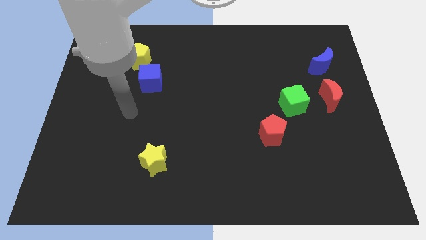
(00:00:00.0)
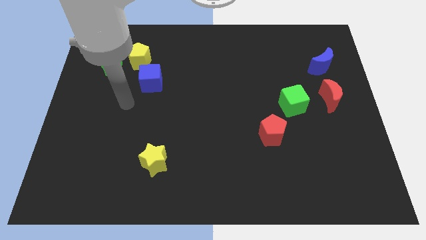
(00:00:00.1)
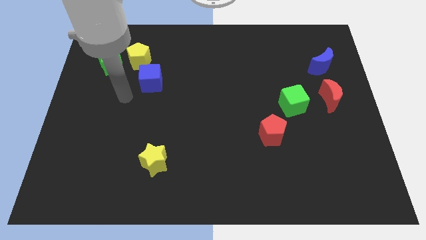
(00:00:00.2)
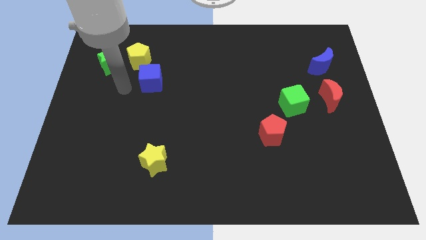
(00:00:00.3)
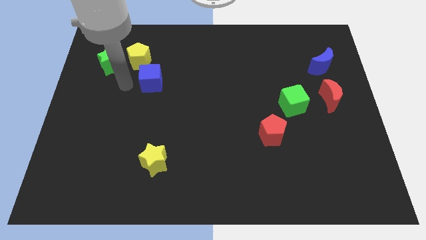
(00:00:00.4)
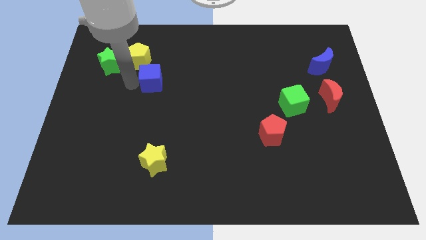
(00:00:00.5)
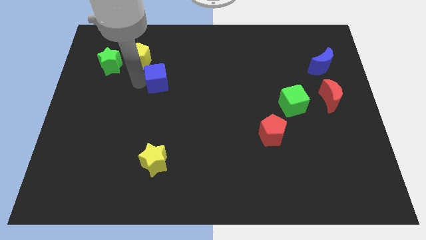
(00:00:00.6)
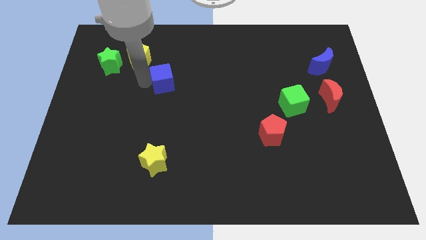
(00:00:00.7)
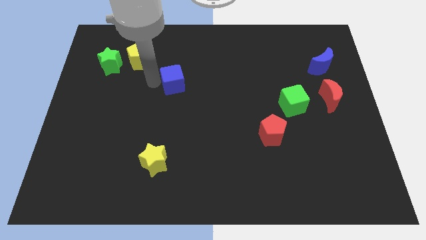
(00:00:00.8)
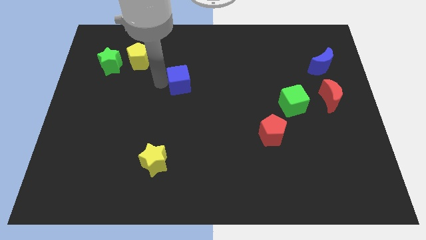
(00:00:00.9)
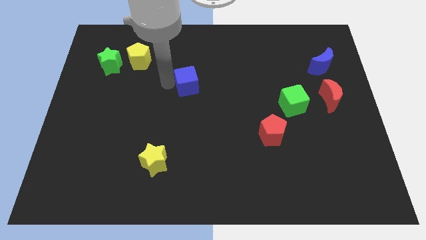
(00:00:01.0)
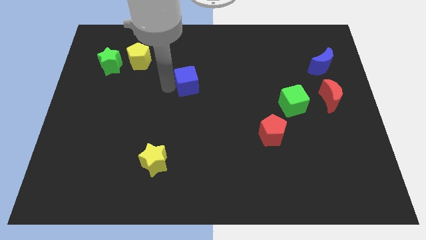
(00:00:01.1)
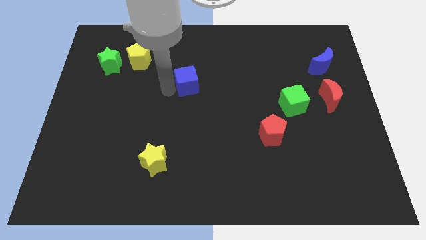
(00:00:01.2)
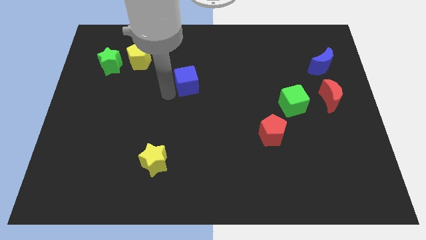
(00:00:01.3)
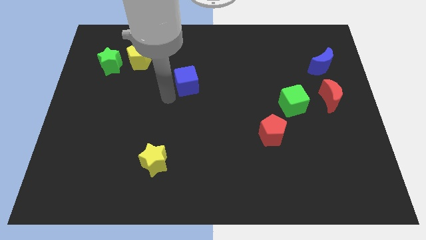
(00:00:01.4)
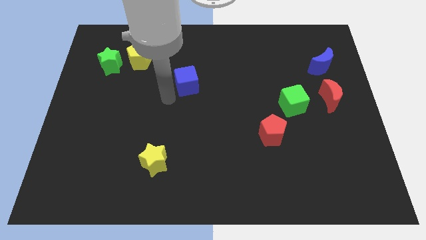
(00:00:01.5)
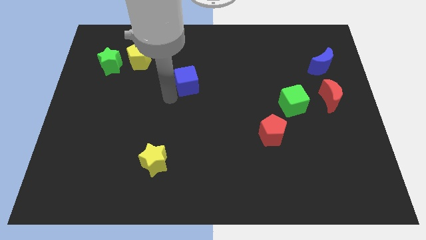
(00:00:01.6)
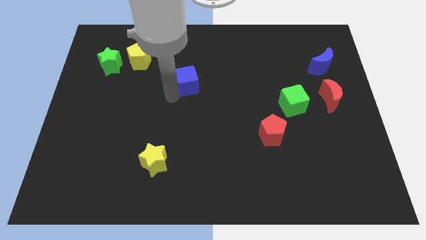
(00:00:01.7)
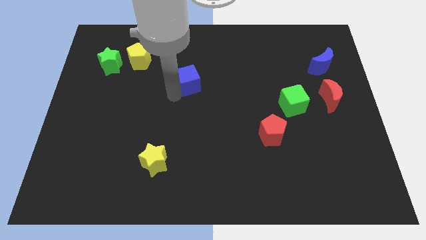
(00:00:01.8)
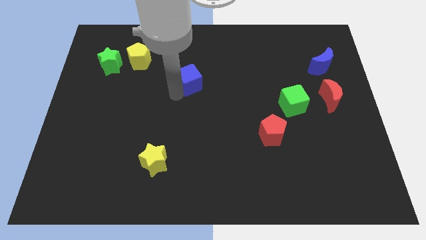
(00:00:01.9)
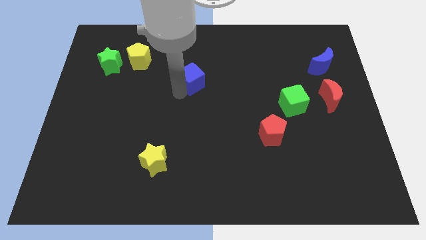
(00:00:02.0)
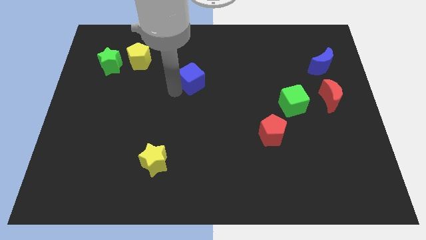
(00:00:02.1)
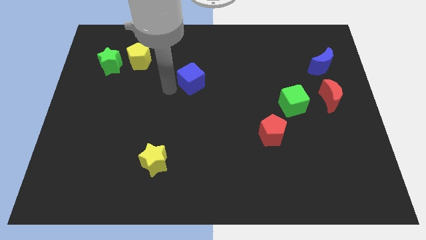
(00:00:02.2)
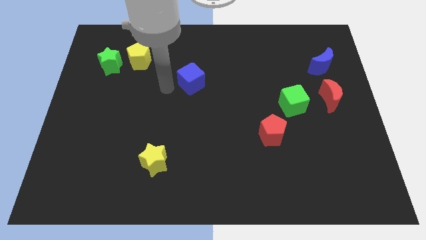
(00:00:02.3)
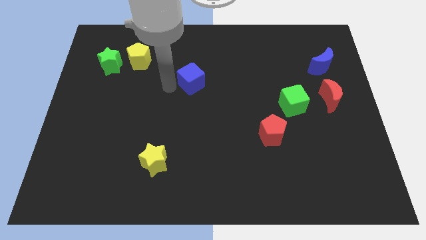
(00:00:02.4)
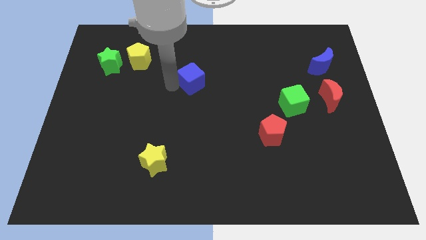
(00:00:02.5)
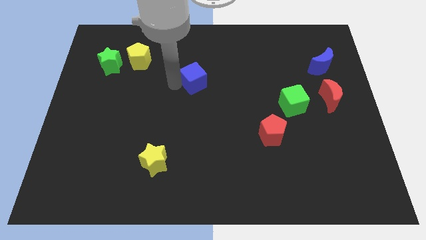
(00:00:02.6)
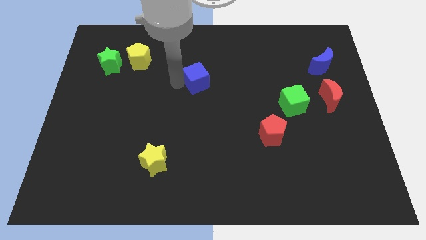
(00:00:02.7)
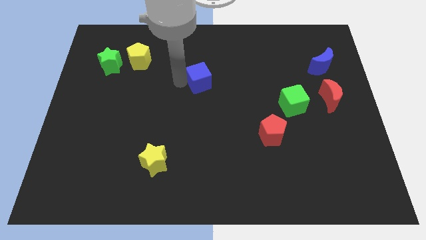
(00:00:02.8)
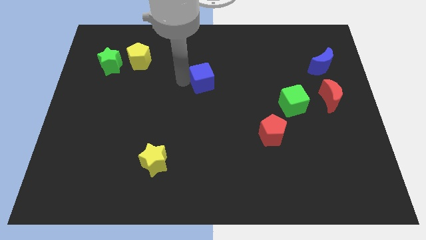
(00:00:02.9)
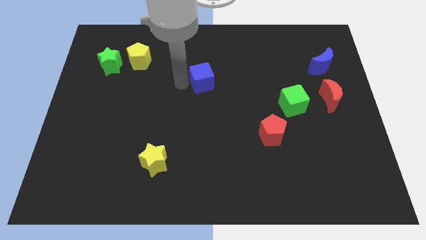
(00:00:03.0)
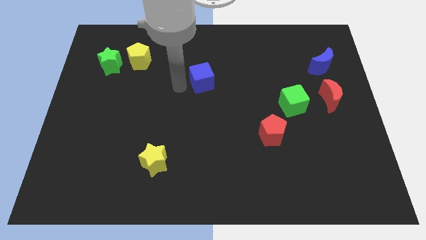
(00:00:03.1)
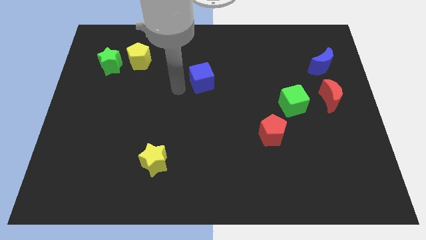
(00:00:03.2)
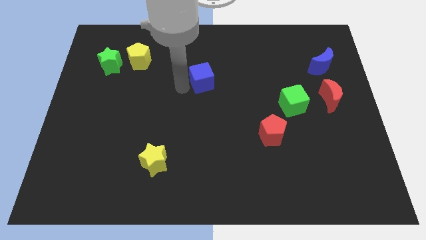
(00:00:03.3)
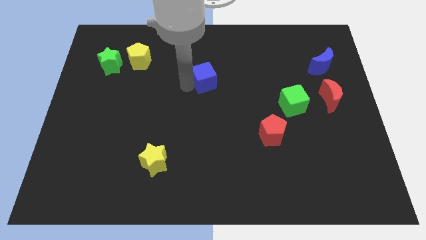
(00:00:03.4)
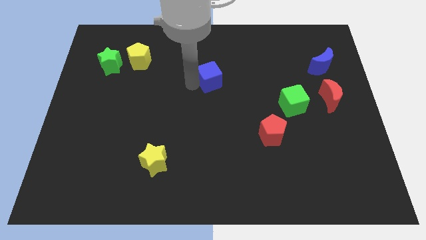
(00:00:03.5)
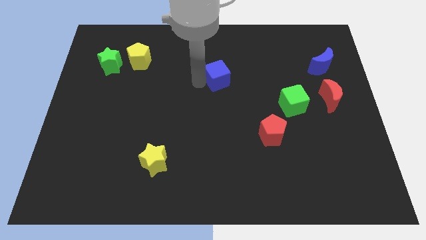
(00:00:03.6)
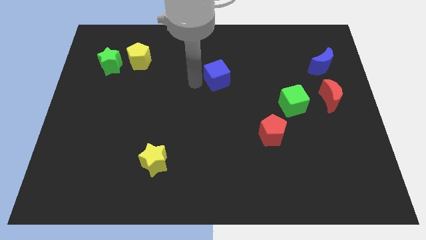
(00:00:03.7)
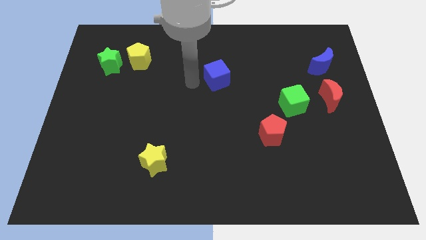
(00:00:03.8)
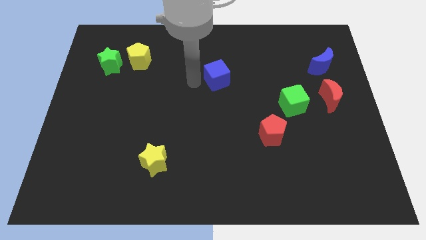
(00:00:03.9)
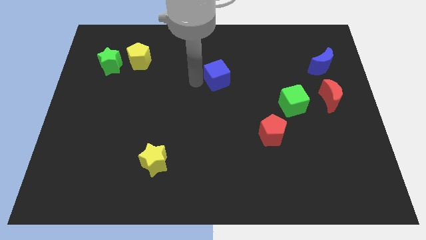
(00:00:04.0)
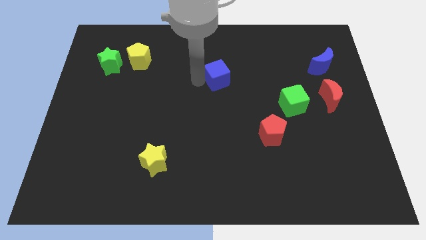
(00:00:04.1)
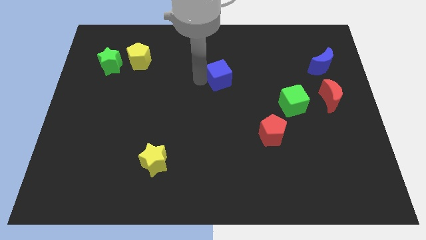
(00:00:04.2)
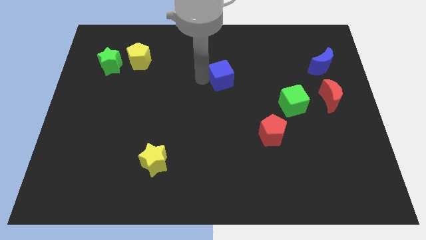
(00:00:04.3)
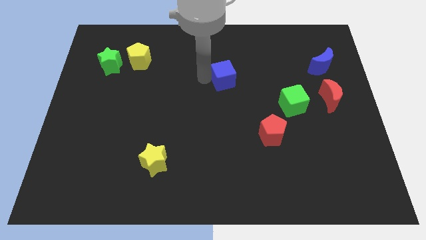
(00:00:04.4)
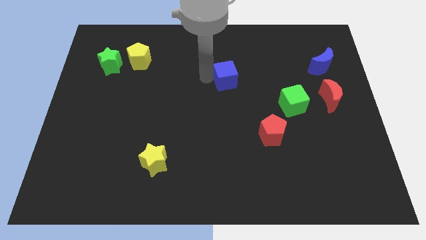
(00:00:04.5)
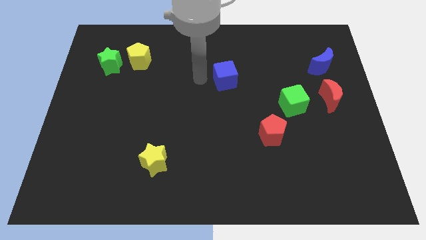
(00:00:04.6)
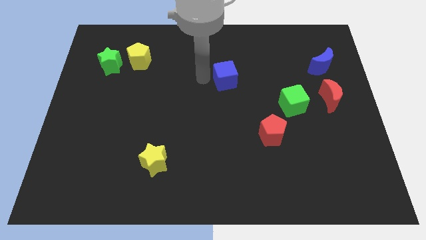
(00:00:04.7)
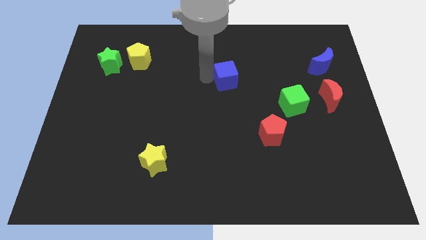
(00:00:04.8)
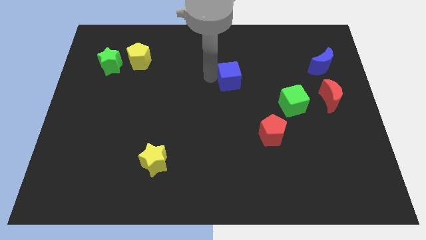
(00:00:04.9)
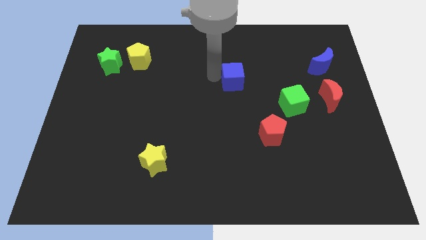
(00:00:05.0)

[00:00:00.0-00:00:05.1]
push the blue cube to the right

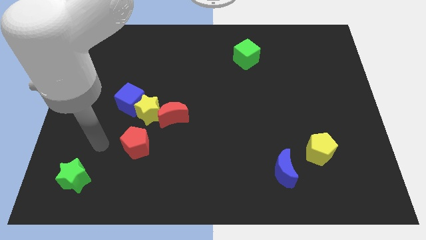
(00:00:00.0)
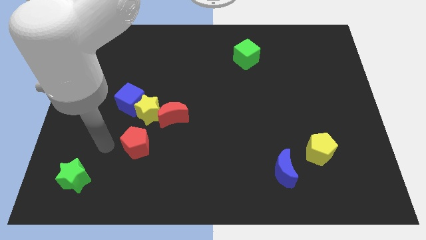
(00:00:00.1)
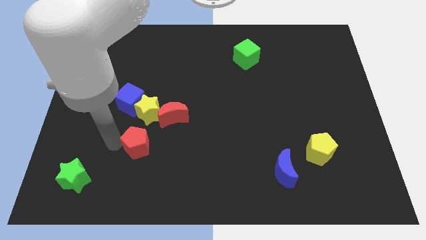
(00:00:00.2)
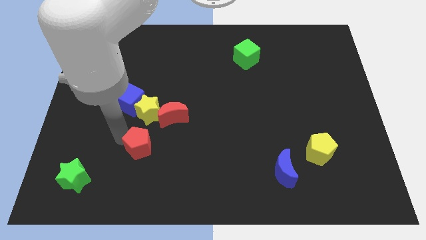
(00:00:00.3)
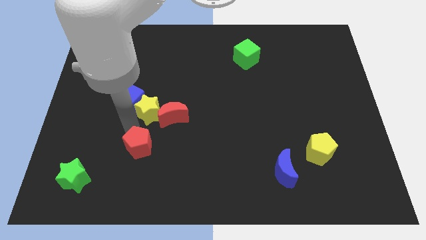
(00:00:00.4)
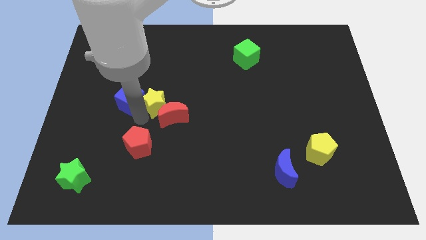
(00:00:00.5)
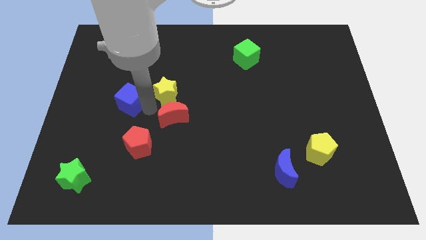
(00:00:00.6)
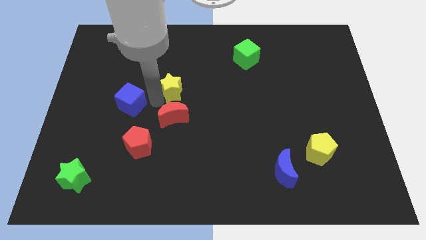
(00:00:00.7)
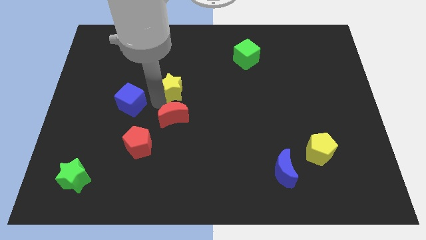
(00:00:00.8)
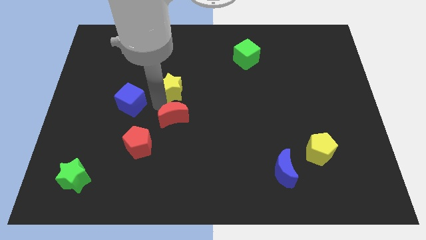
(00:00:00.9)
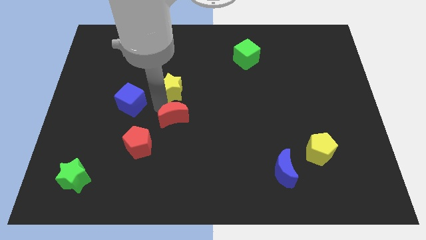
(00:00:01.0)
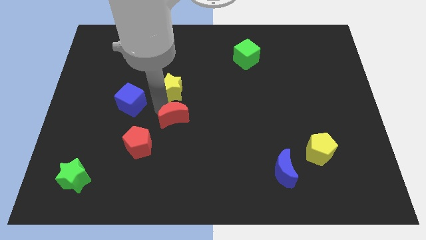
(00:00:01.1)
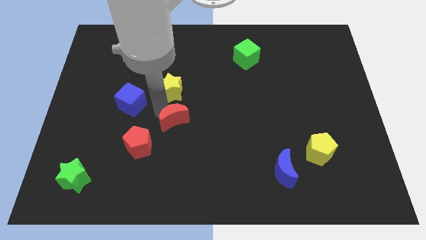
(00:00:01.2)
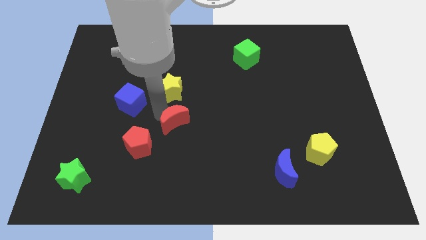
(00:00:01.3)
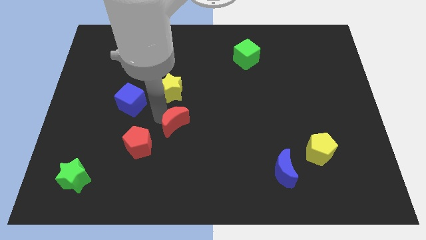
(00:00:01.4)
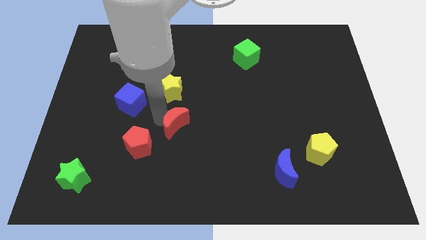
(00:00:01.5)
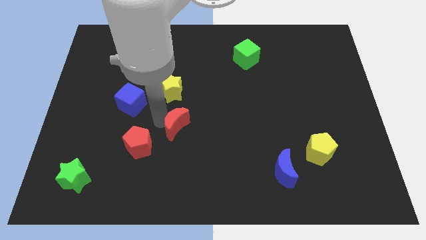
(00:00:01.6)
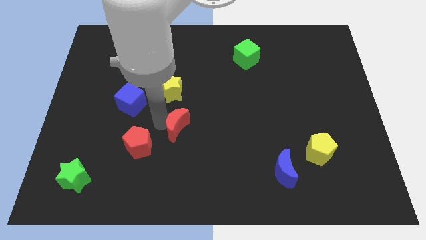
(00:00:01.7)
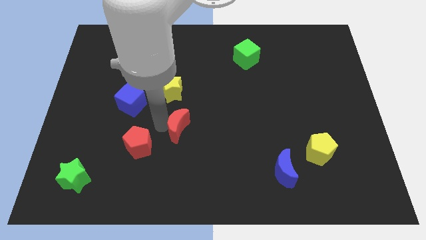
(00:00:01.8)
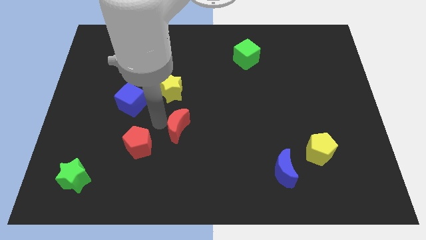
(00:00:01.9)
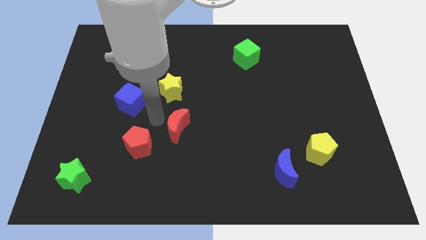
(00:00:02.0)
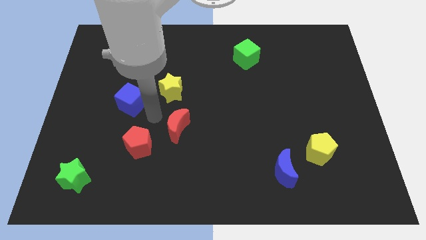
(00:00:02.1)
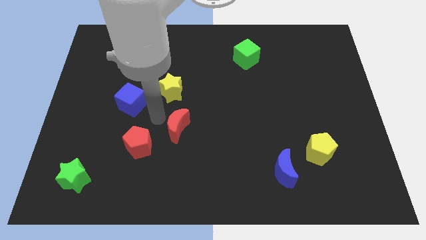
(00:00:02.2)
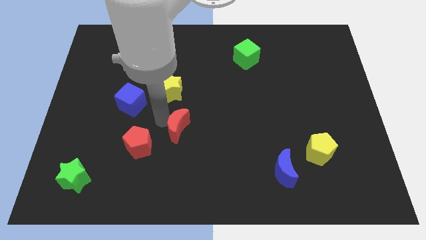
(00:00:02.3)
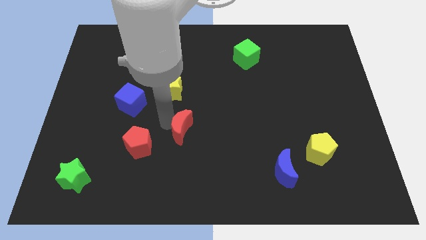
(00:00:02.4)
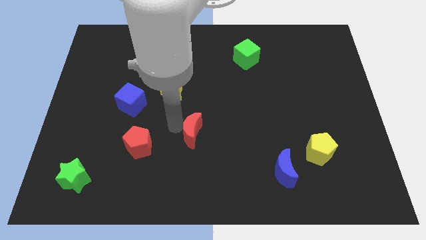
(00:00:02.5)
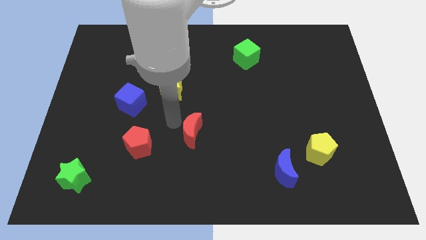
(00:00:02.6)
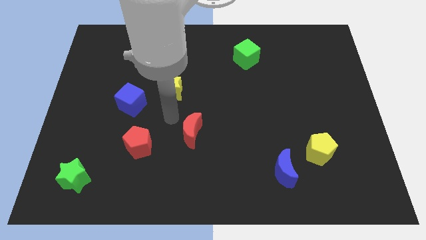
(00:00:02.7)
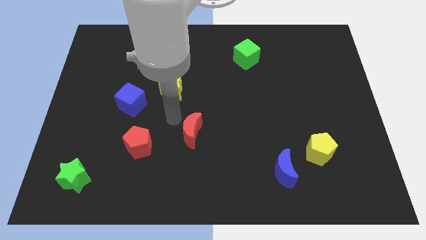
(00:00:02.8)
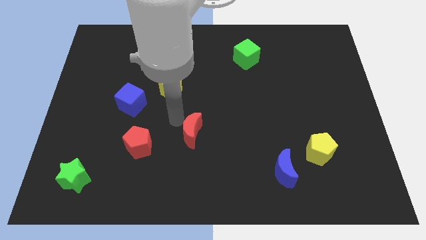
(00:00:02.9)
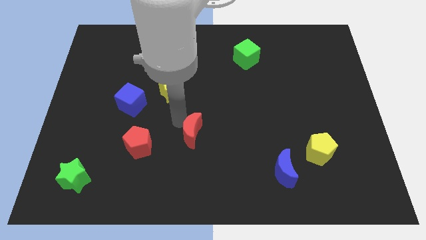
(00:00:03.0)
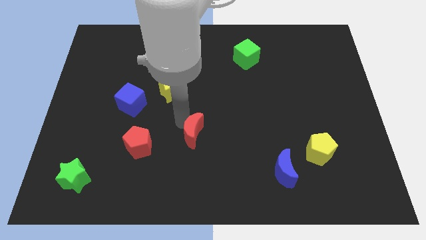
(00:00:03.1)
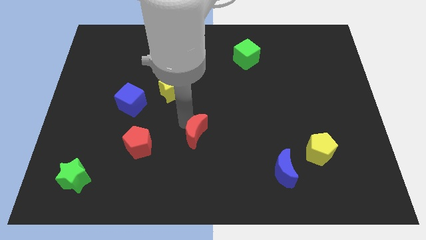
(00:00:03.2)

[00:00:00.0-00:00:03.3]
move the red moon down and to the right diagonally a little
